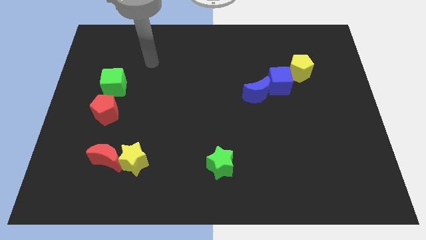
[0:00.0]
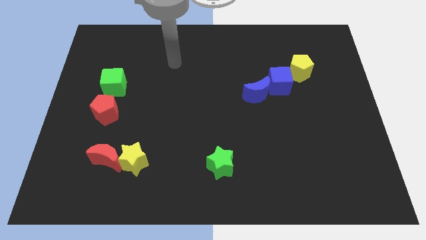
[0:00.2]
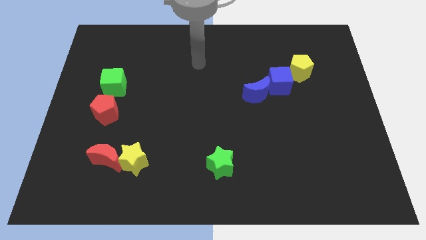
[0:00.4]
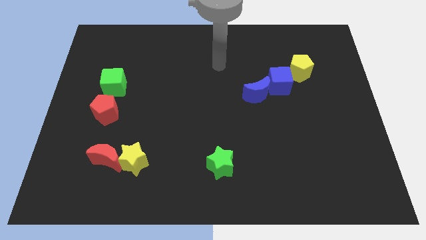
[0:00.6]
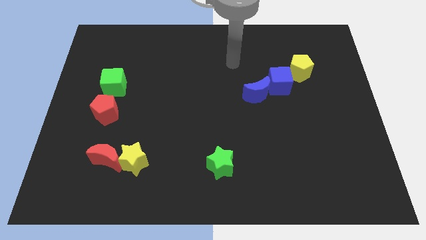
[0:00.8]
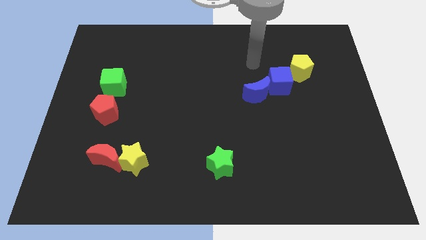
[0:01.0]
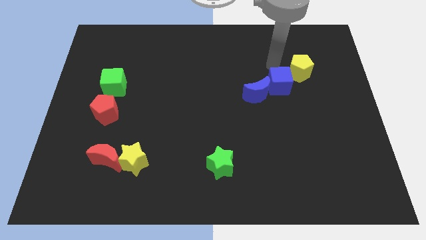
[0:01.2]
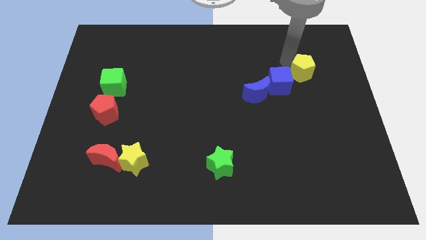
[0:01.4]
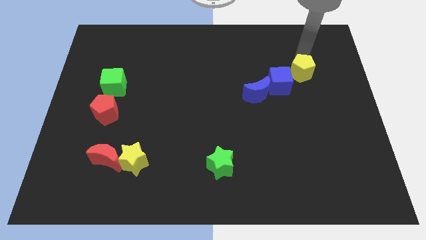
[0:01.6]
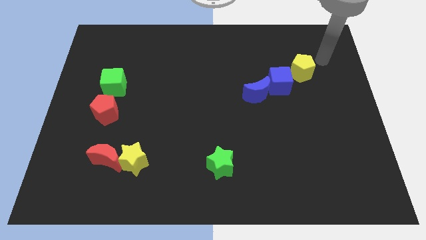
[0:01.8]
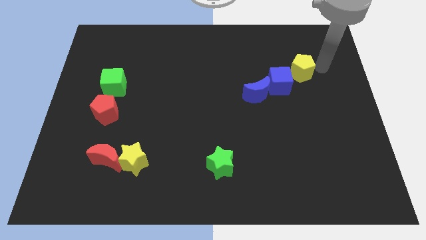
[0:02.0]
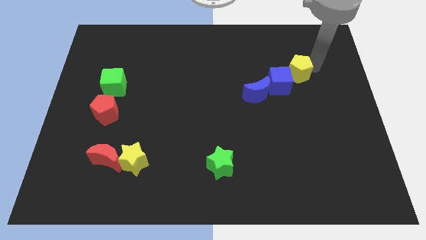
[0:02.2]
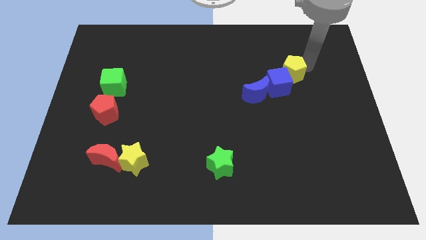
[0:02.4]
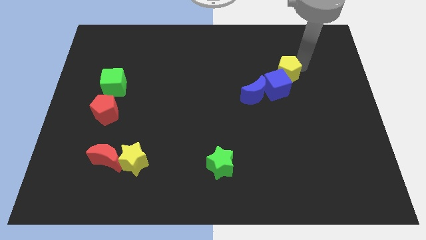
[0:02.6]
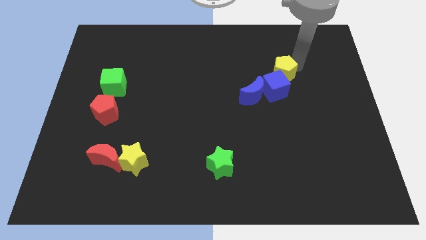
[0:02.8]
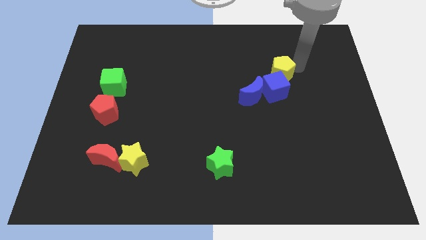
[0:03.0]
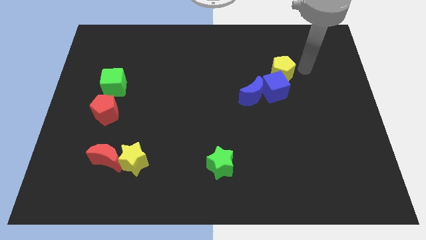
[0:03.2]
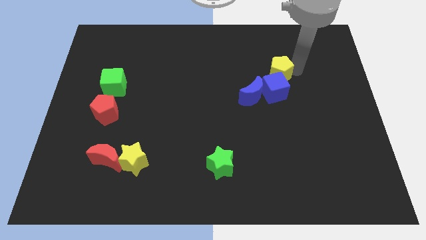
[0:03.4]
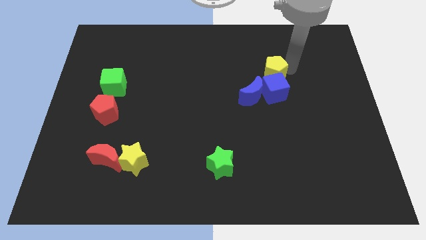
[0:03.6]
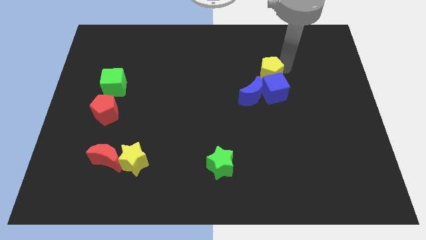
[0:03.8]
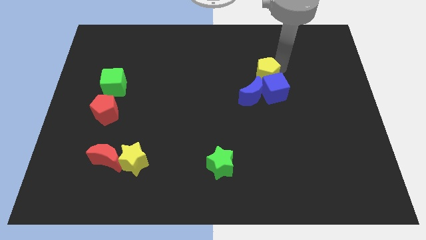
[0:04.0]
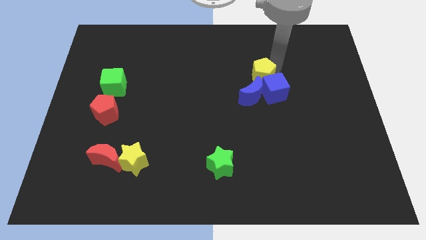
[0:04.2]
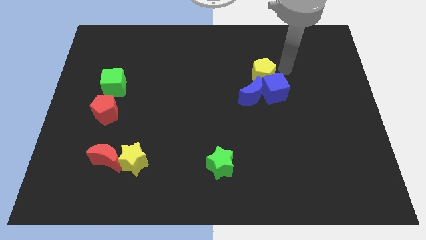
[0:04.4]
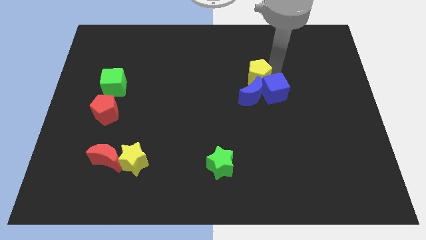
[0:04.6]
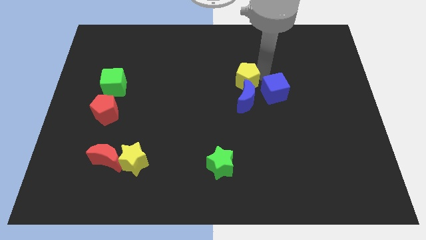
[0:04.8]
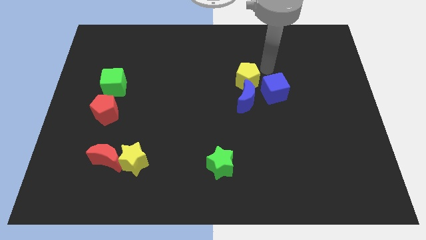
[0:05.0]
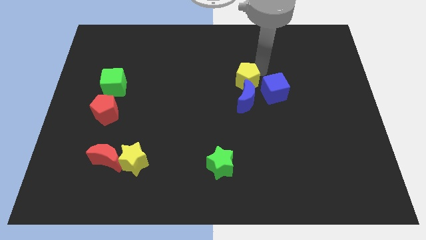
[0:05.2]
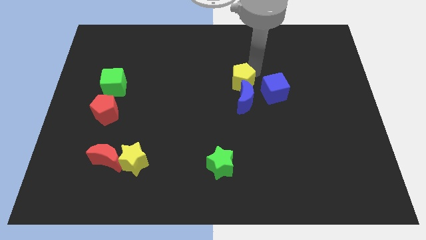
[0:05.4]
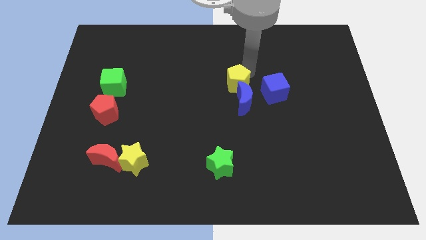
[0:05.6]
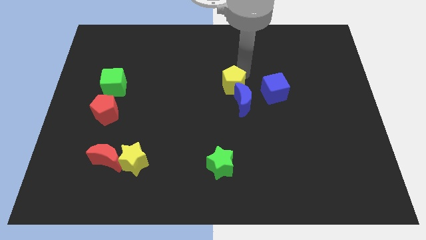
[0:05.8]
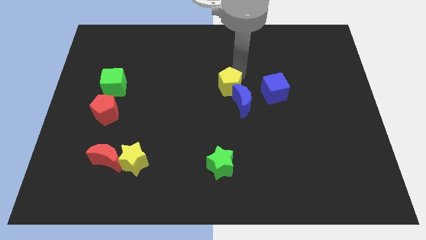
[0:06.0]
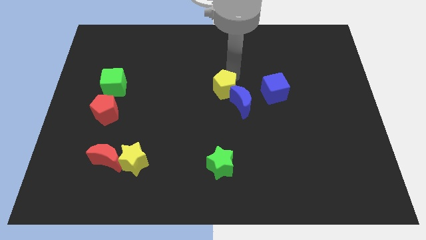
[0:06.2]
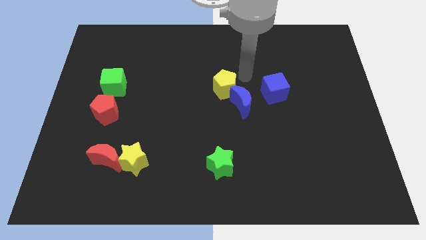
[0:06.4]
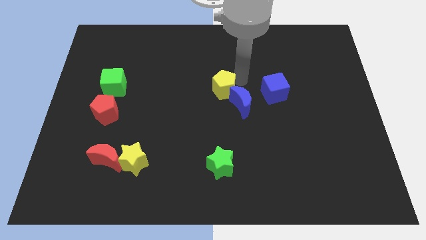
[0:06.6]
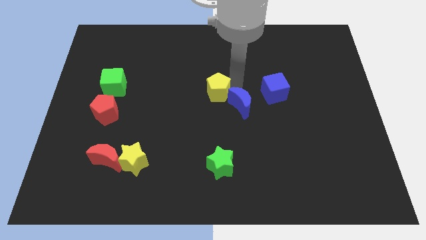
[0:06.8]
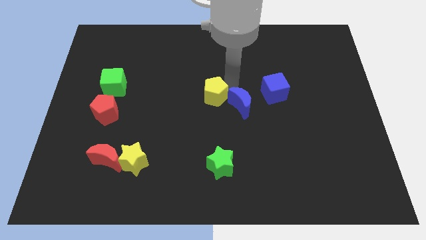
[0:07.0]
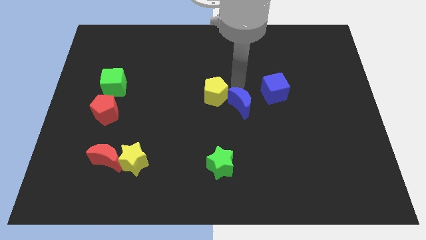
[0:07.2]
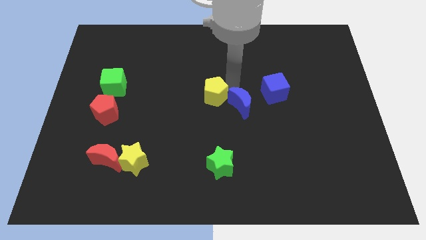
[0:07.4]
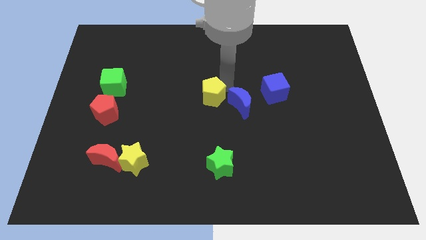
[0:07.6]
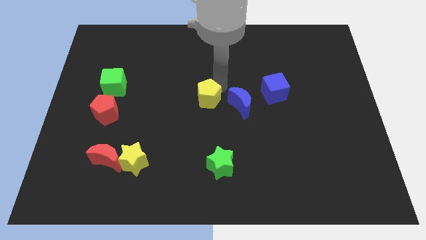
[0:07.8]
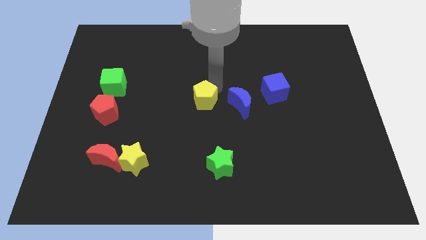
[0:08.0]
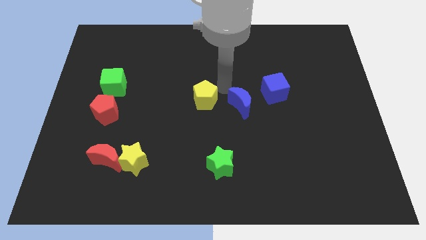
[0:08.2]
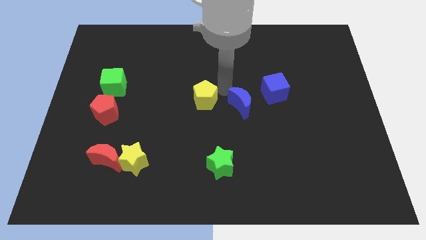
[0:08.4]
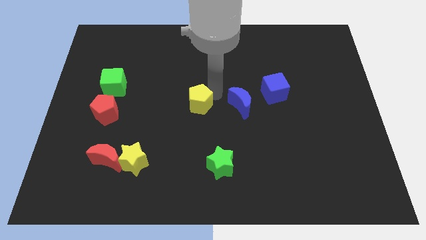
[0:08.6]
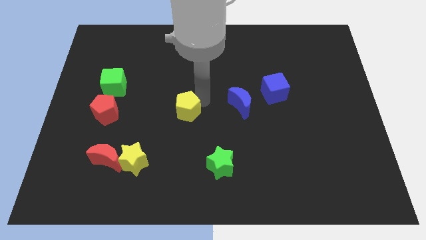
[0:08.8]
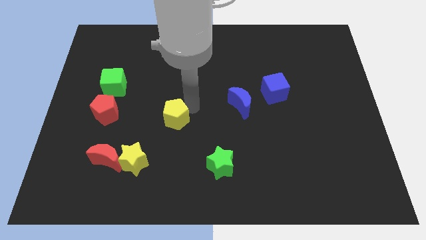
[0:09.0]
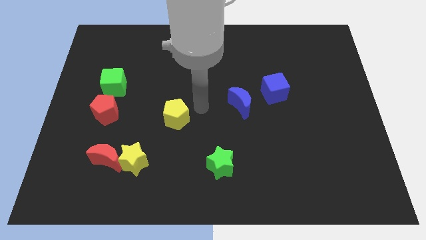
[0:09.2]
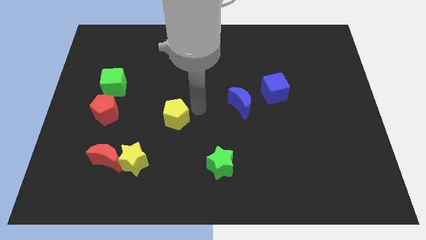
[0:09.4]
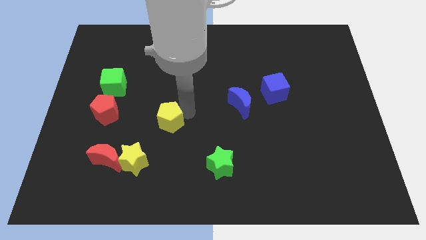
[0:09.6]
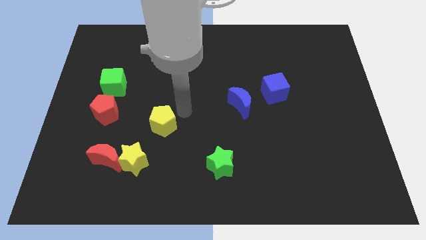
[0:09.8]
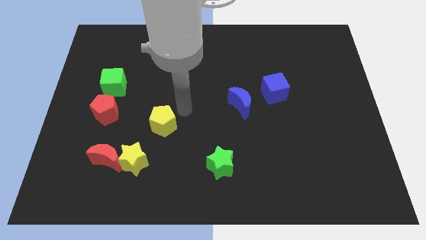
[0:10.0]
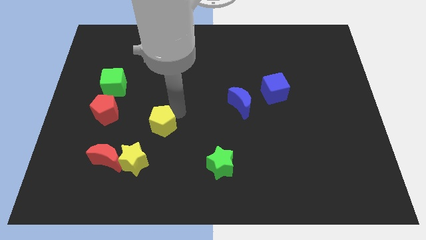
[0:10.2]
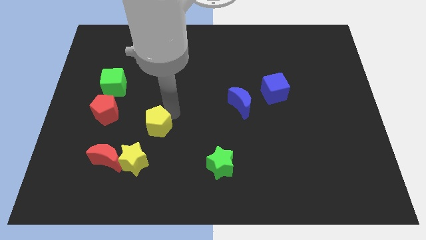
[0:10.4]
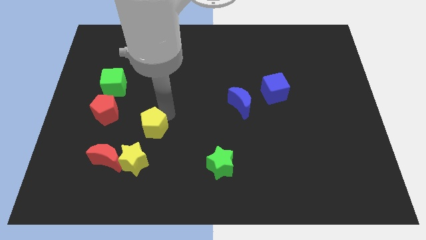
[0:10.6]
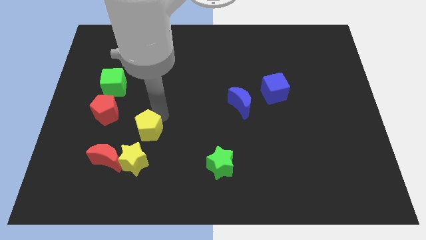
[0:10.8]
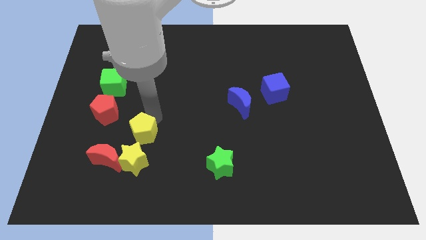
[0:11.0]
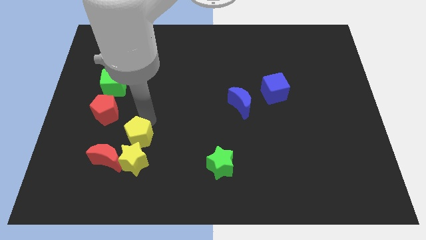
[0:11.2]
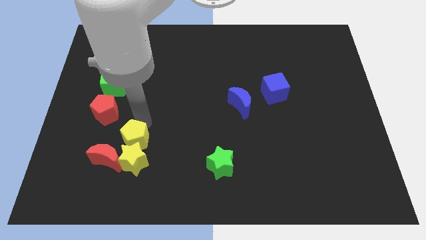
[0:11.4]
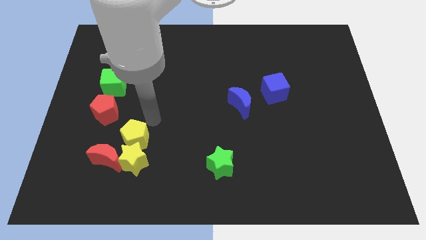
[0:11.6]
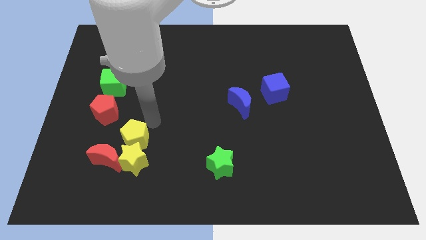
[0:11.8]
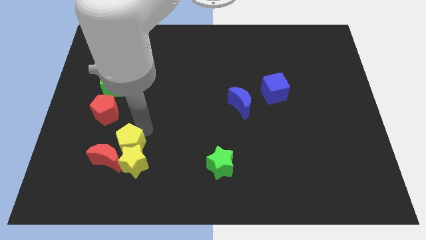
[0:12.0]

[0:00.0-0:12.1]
move the yellow pentagon towards the red moon

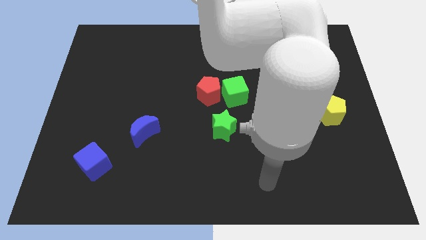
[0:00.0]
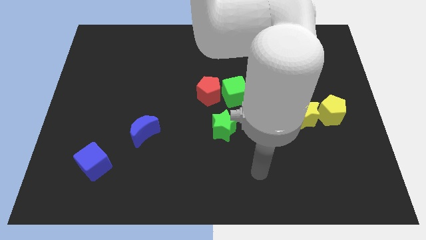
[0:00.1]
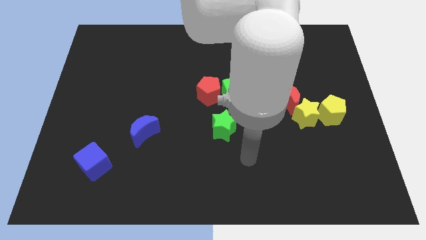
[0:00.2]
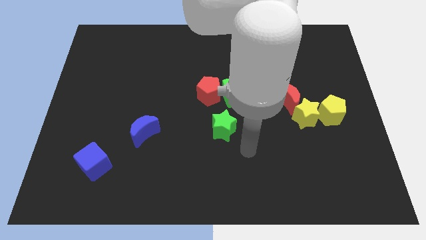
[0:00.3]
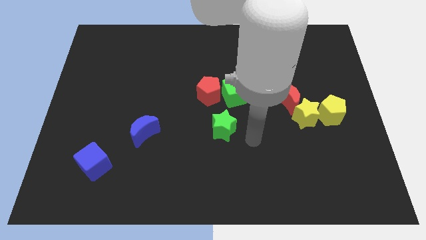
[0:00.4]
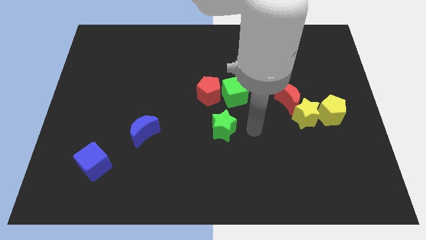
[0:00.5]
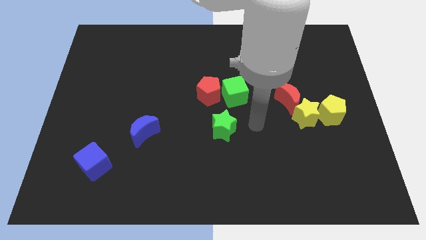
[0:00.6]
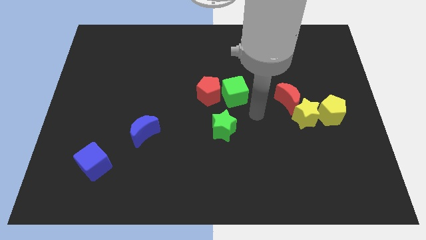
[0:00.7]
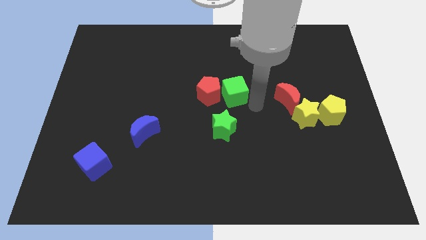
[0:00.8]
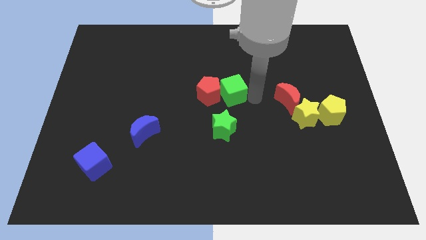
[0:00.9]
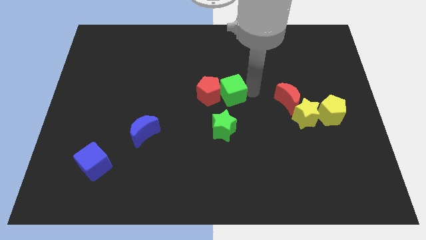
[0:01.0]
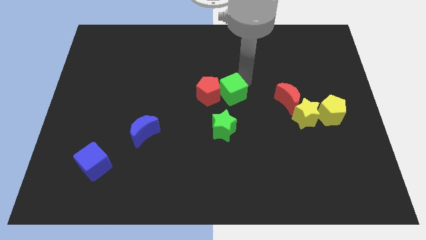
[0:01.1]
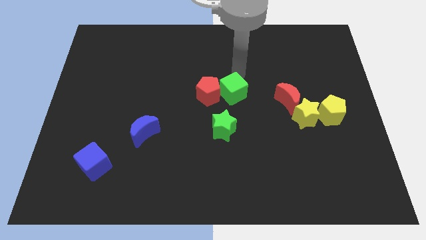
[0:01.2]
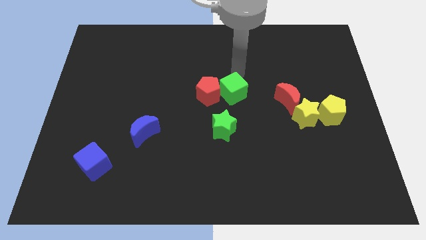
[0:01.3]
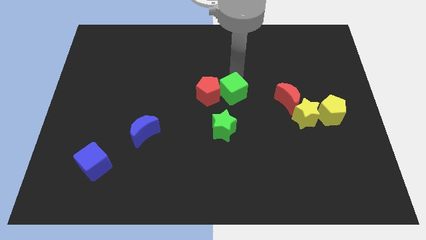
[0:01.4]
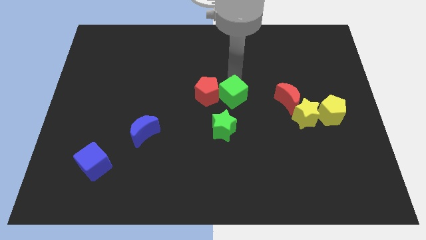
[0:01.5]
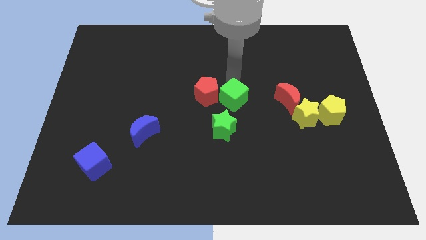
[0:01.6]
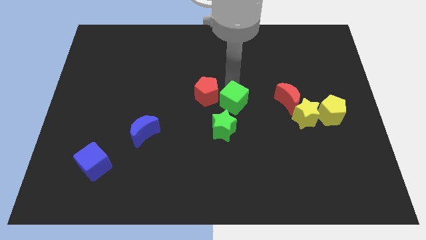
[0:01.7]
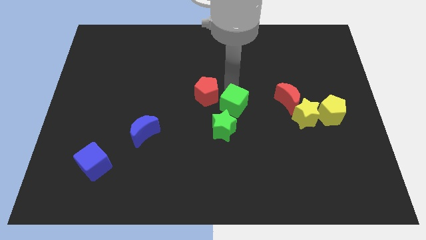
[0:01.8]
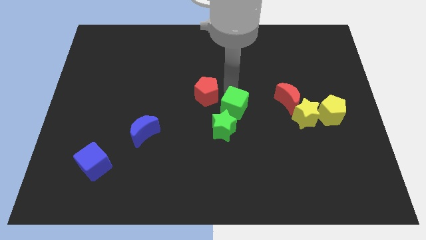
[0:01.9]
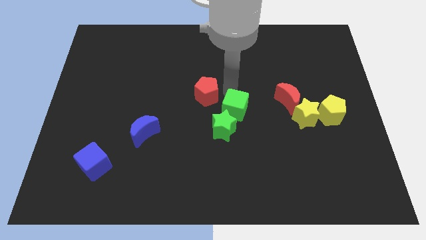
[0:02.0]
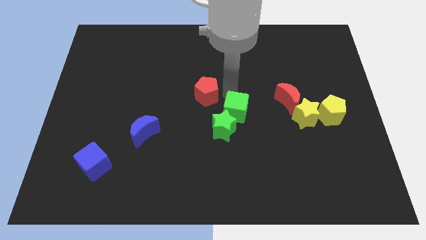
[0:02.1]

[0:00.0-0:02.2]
push the green cube close to the green star
